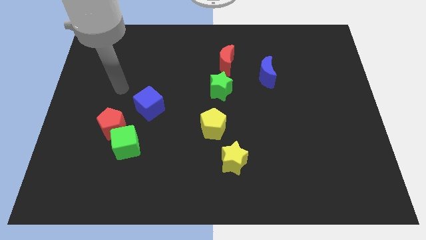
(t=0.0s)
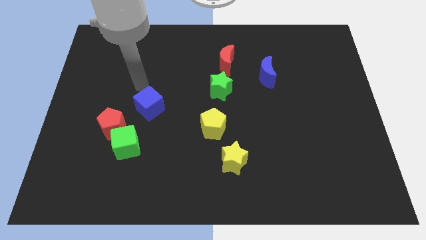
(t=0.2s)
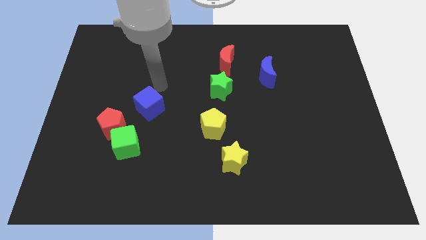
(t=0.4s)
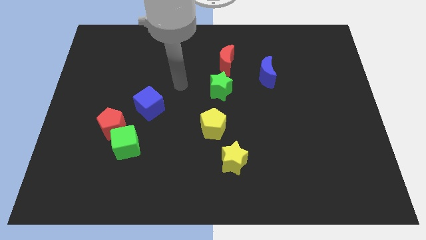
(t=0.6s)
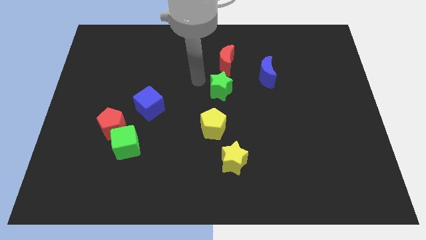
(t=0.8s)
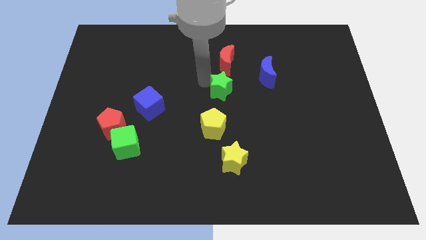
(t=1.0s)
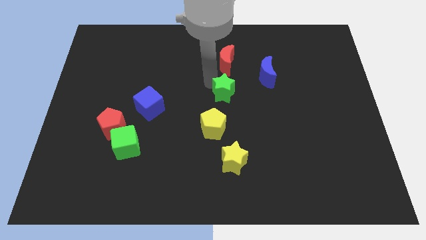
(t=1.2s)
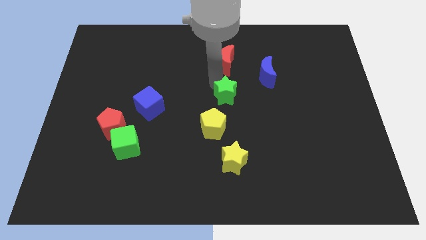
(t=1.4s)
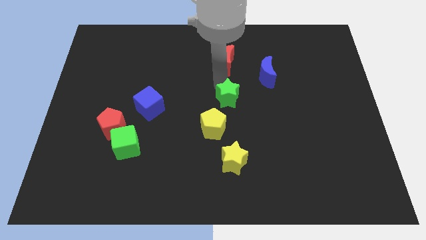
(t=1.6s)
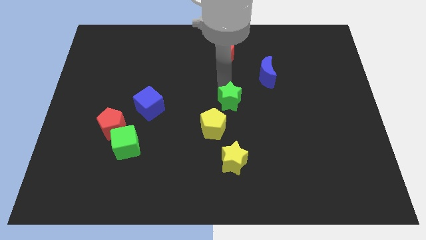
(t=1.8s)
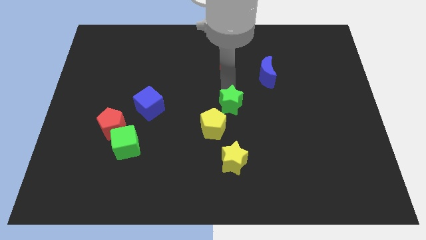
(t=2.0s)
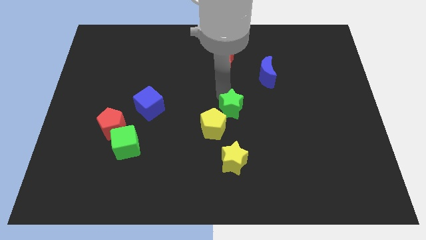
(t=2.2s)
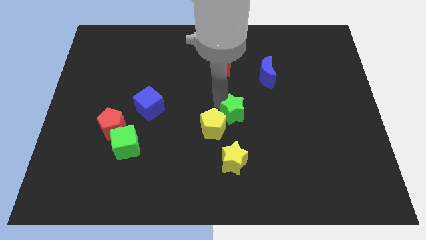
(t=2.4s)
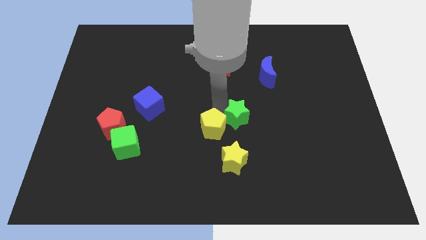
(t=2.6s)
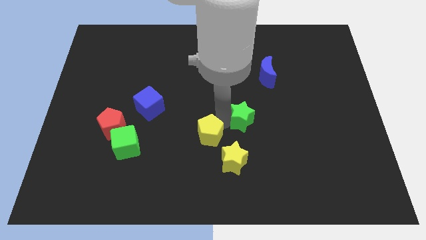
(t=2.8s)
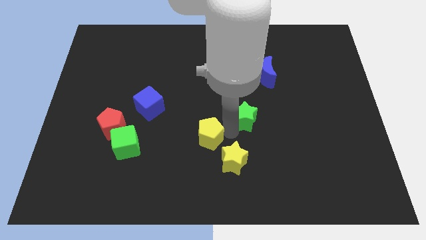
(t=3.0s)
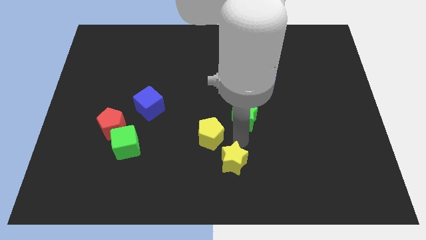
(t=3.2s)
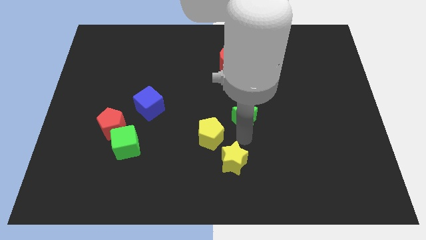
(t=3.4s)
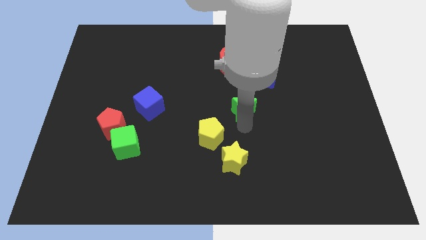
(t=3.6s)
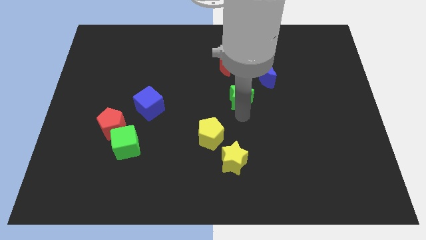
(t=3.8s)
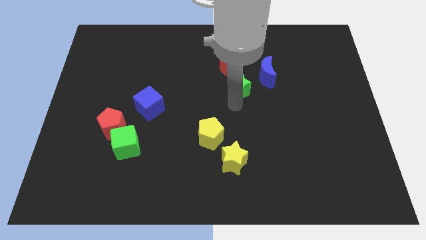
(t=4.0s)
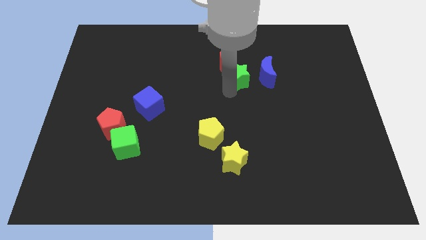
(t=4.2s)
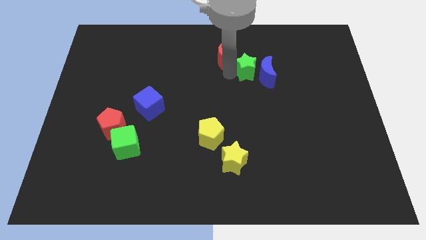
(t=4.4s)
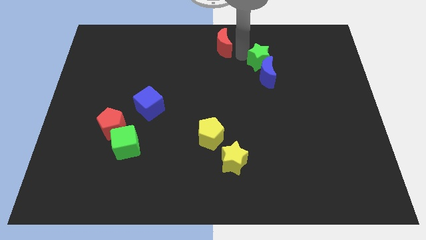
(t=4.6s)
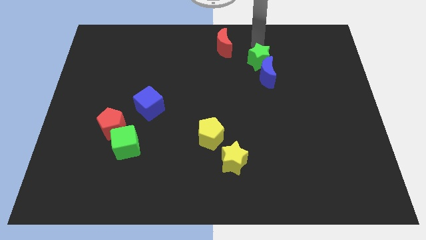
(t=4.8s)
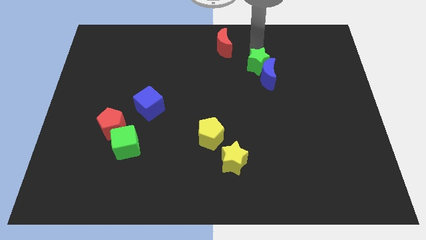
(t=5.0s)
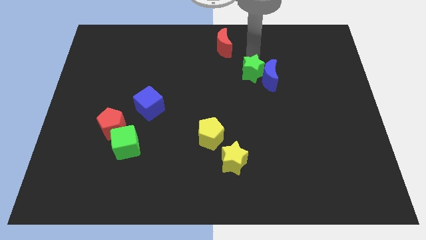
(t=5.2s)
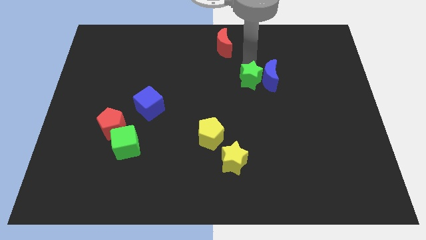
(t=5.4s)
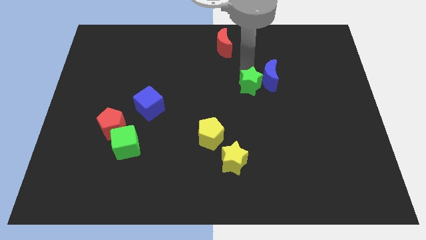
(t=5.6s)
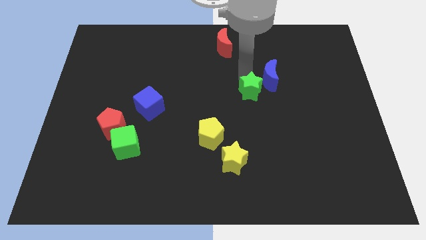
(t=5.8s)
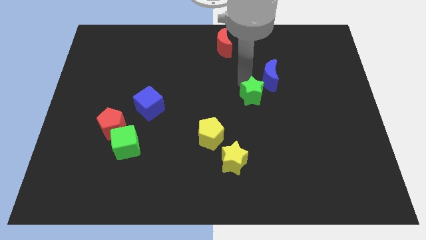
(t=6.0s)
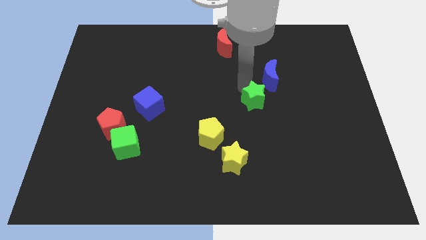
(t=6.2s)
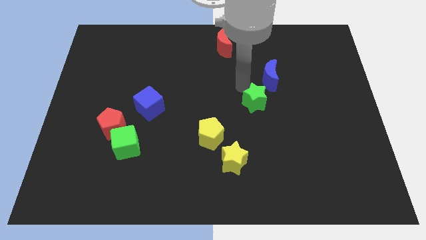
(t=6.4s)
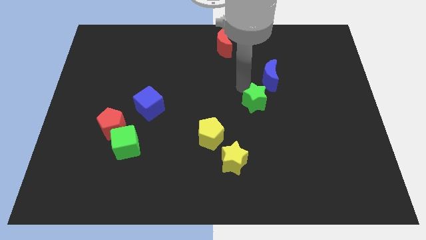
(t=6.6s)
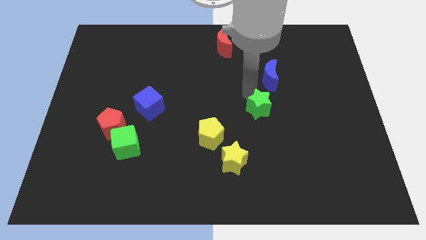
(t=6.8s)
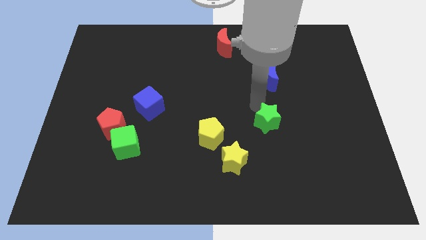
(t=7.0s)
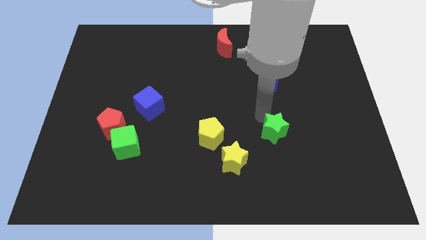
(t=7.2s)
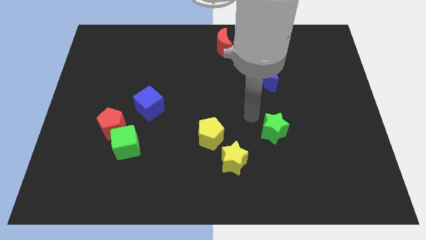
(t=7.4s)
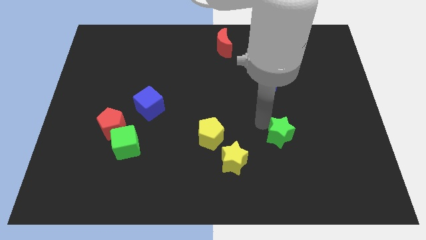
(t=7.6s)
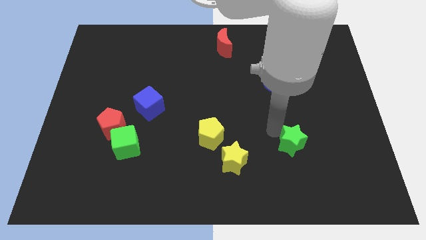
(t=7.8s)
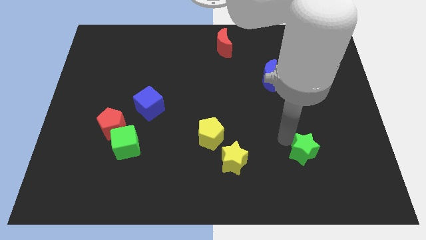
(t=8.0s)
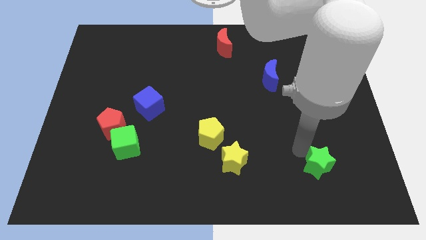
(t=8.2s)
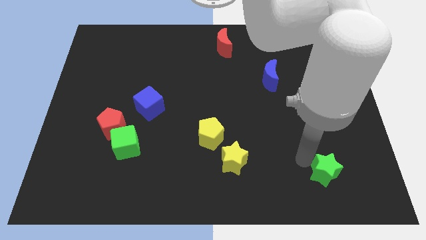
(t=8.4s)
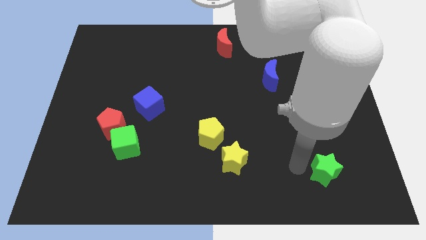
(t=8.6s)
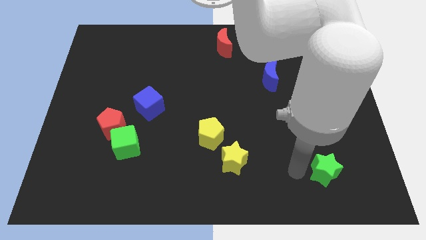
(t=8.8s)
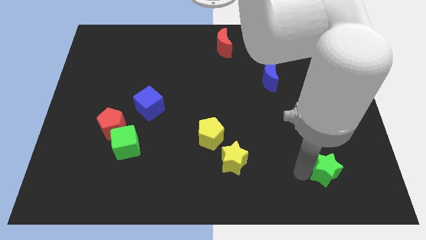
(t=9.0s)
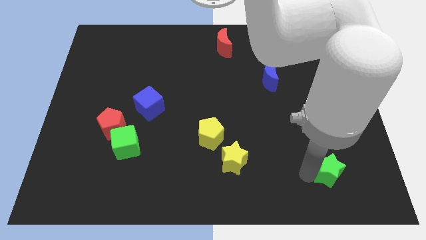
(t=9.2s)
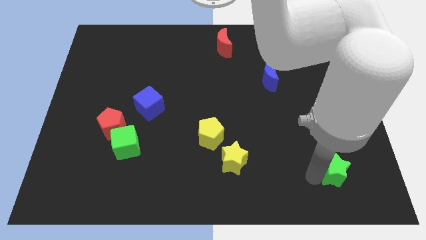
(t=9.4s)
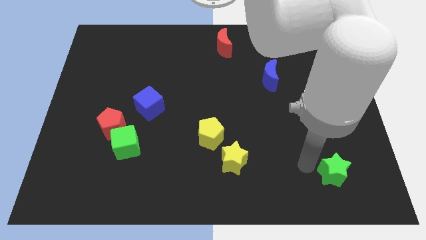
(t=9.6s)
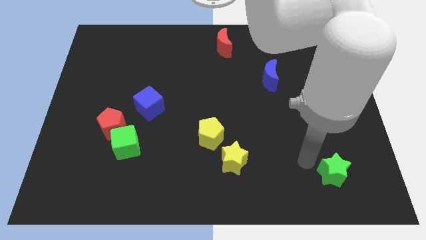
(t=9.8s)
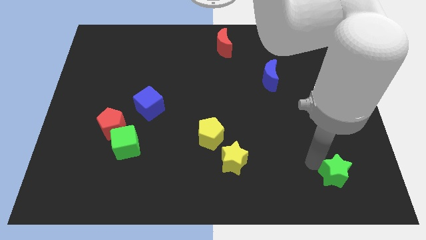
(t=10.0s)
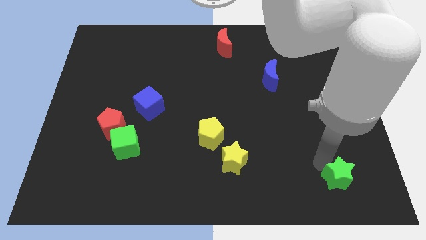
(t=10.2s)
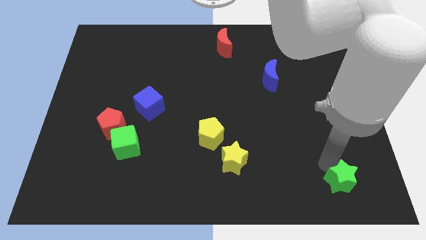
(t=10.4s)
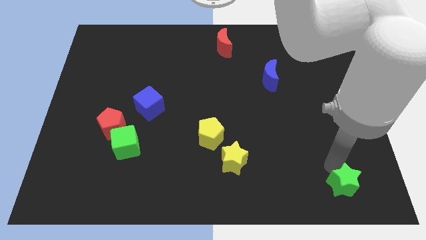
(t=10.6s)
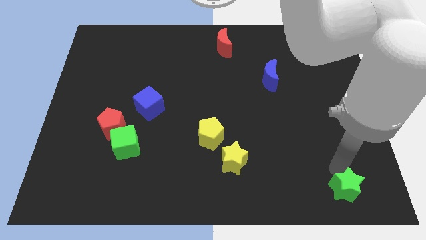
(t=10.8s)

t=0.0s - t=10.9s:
push the green star to the lower right corner

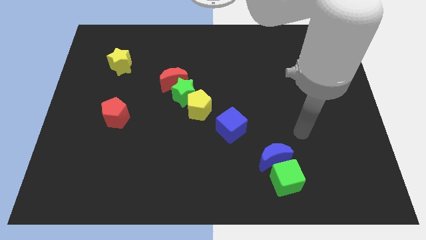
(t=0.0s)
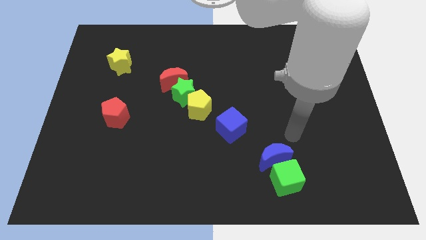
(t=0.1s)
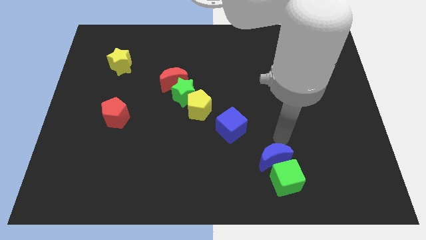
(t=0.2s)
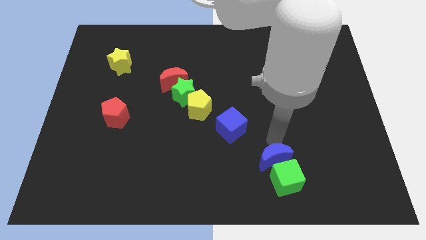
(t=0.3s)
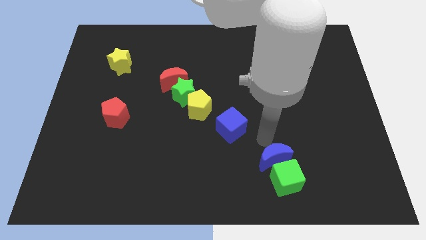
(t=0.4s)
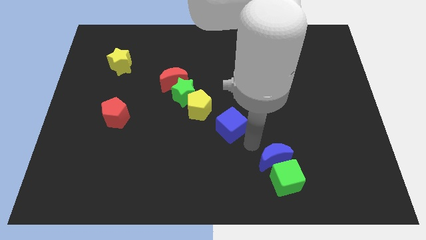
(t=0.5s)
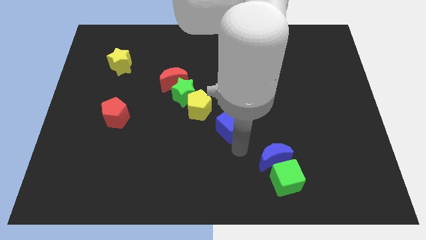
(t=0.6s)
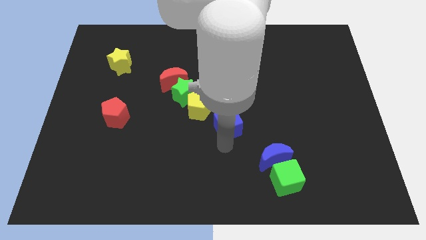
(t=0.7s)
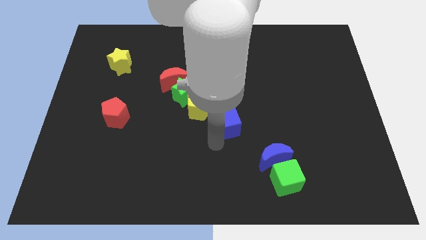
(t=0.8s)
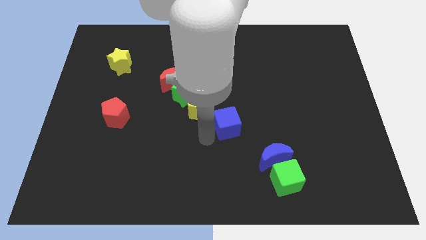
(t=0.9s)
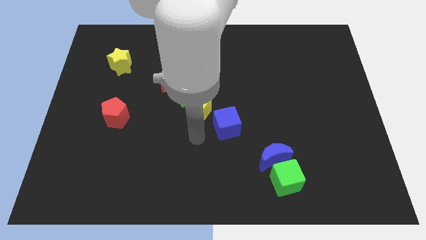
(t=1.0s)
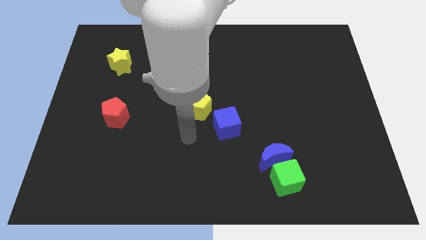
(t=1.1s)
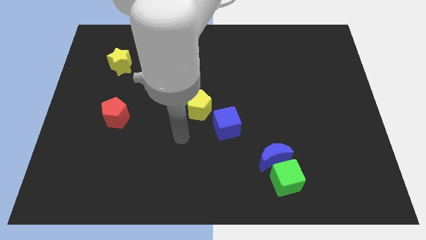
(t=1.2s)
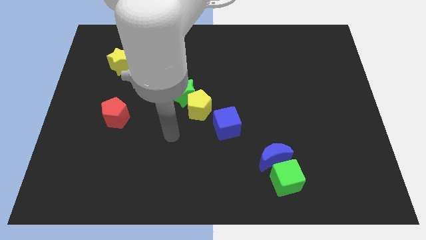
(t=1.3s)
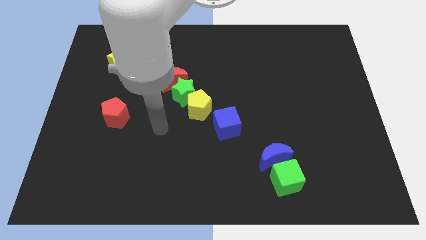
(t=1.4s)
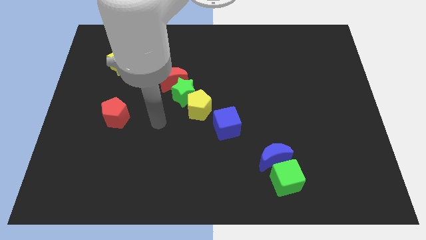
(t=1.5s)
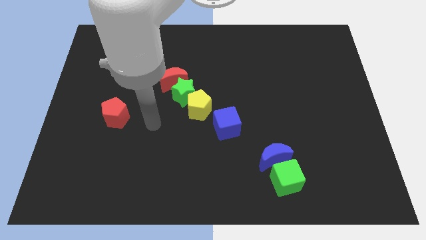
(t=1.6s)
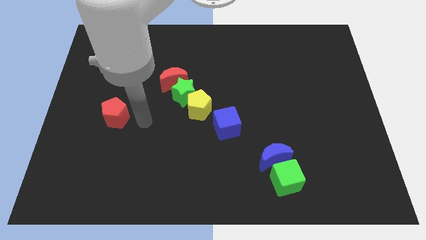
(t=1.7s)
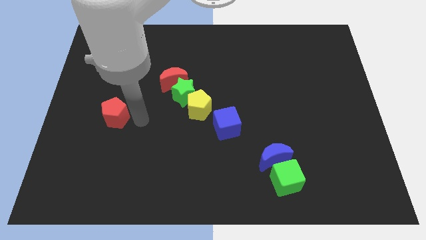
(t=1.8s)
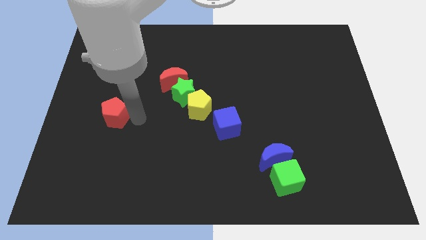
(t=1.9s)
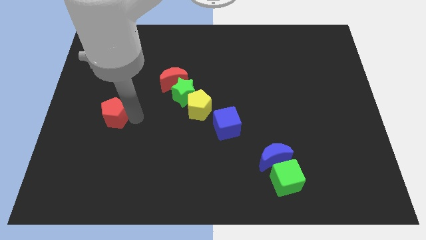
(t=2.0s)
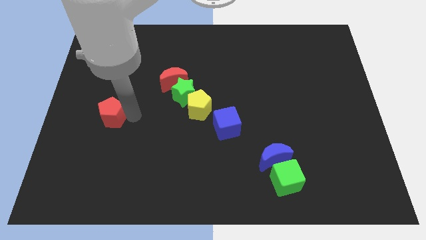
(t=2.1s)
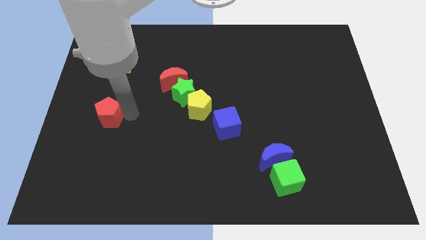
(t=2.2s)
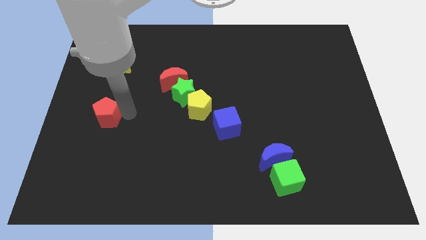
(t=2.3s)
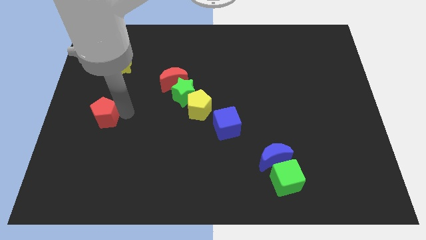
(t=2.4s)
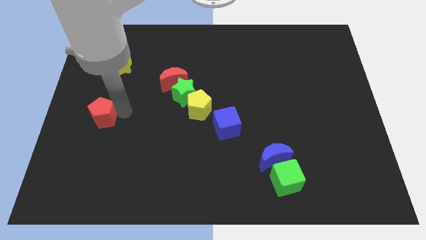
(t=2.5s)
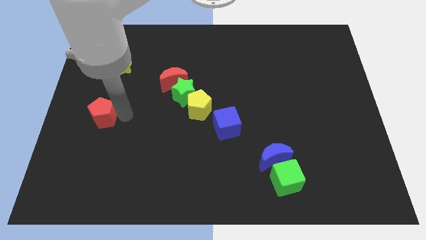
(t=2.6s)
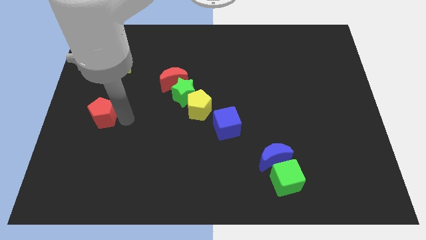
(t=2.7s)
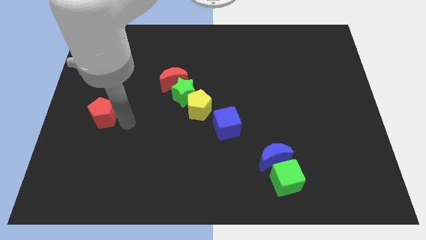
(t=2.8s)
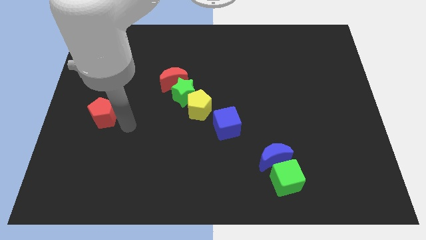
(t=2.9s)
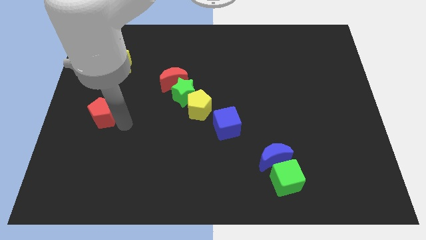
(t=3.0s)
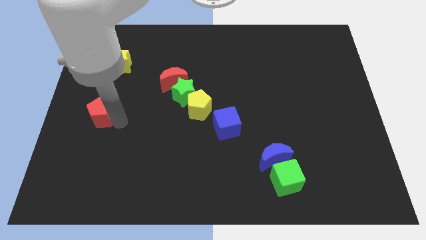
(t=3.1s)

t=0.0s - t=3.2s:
put the red pentagon to the left side
